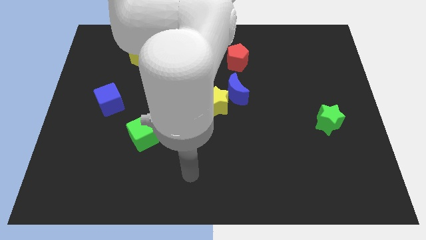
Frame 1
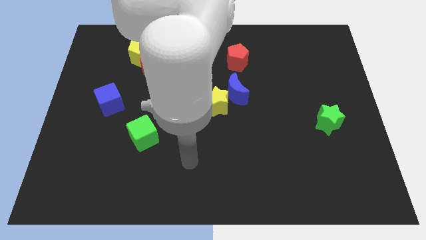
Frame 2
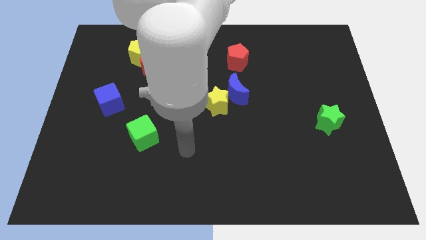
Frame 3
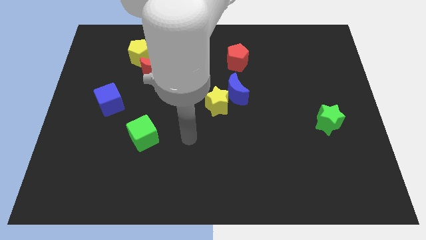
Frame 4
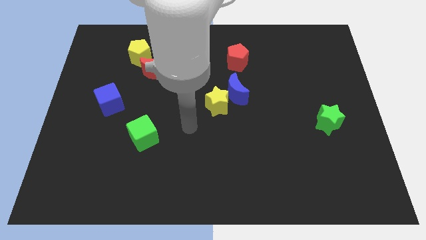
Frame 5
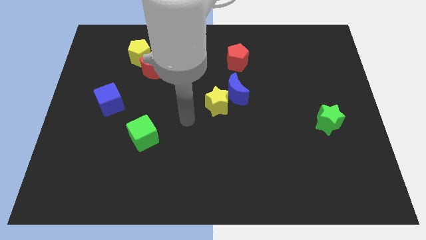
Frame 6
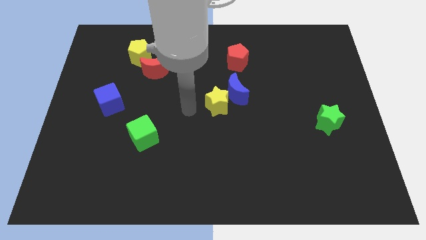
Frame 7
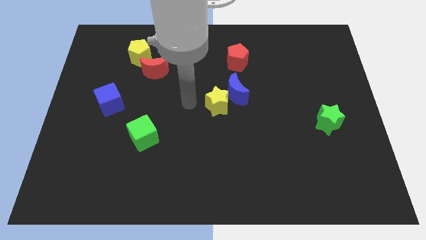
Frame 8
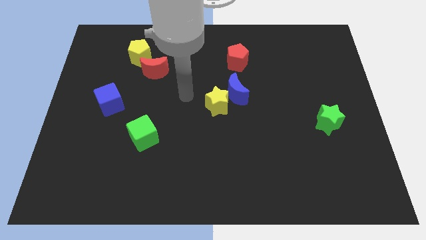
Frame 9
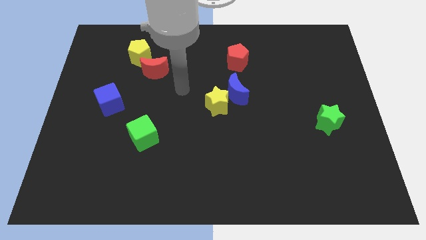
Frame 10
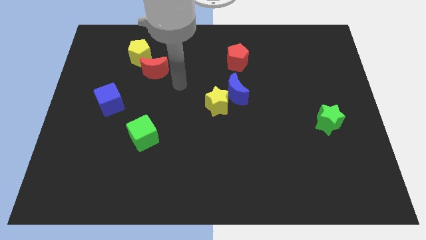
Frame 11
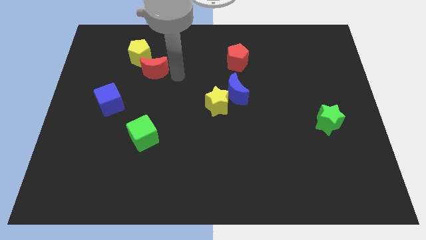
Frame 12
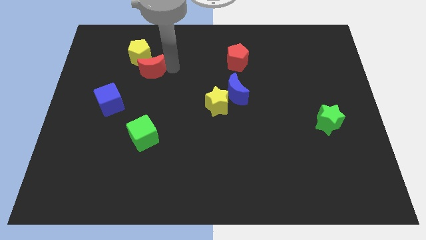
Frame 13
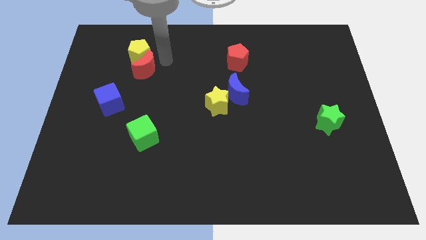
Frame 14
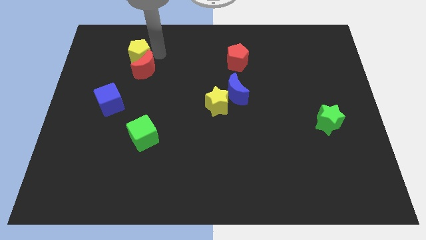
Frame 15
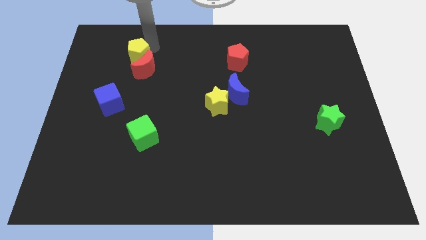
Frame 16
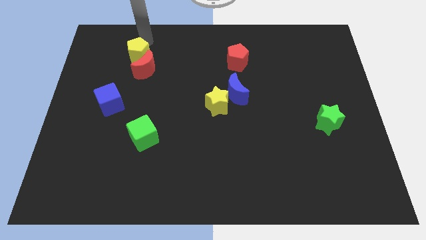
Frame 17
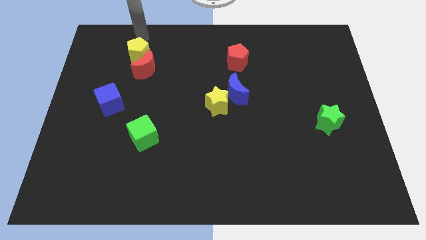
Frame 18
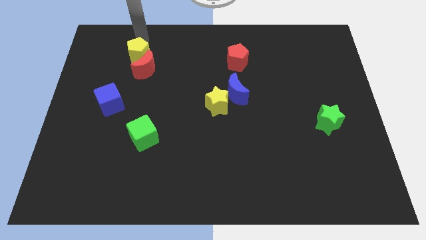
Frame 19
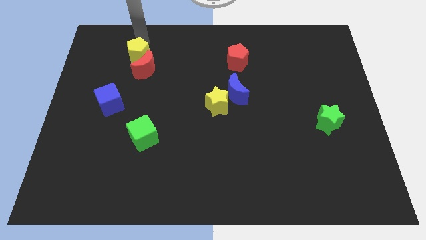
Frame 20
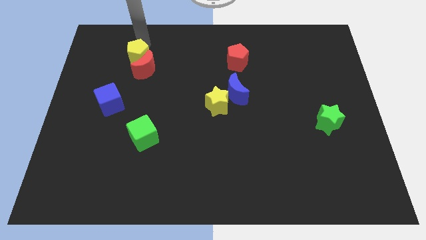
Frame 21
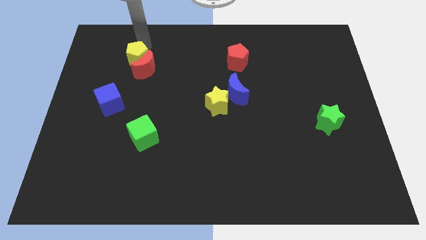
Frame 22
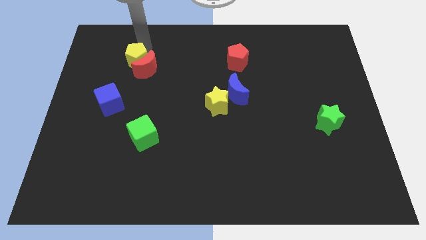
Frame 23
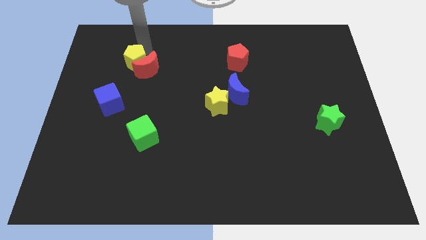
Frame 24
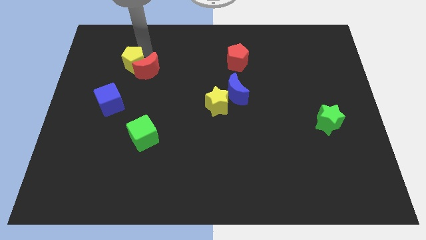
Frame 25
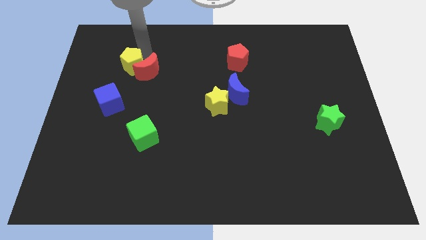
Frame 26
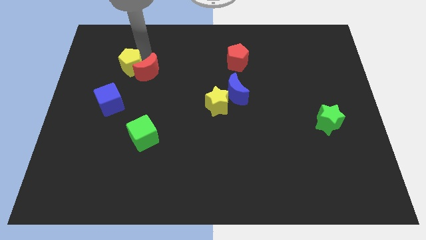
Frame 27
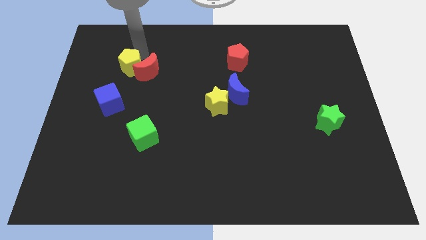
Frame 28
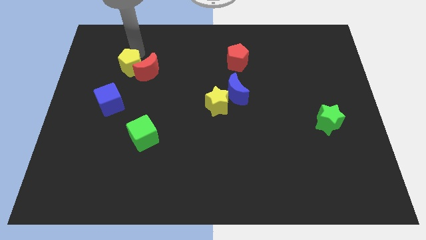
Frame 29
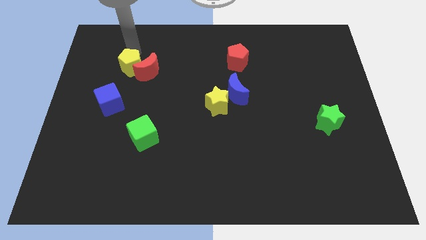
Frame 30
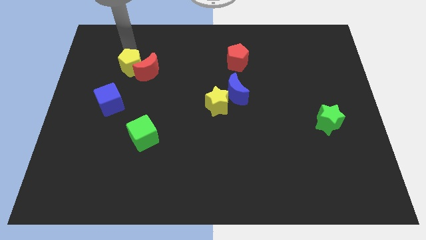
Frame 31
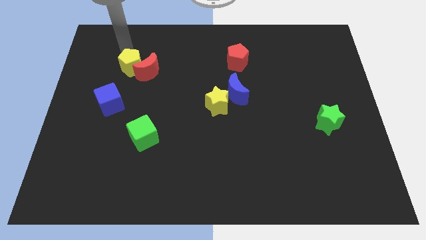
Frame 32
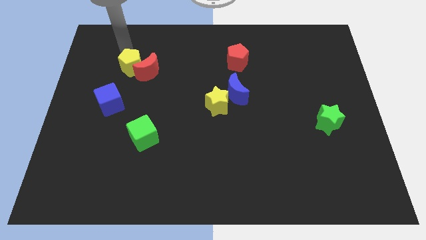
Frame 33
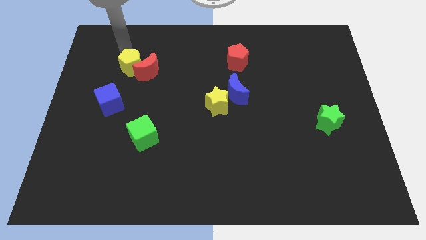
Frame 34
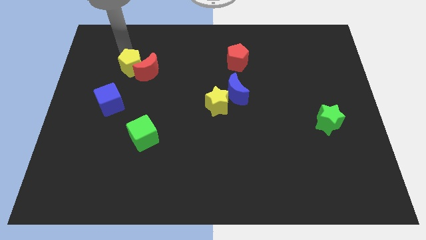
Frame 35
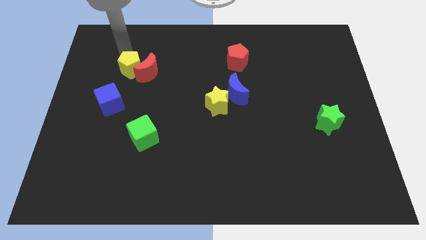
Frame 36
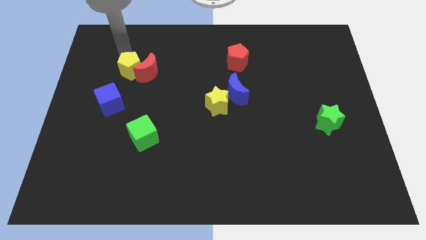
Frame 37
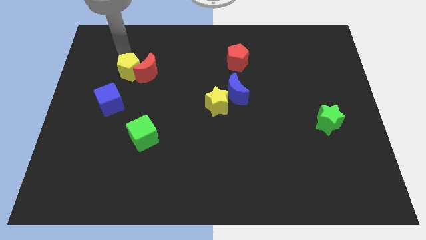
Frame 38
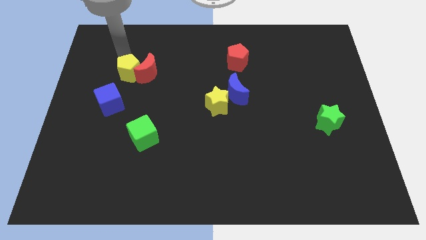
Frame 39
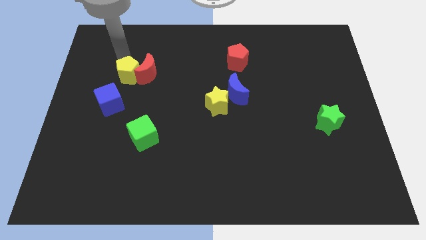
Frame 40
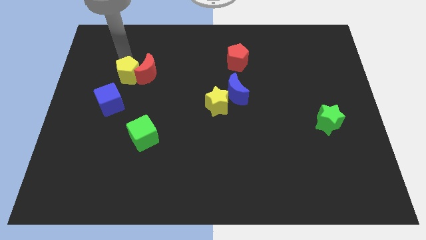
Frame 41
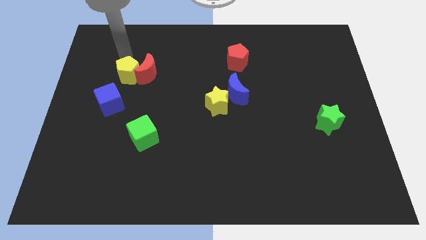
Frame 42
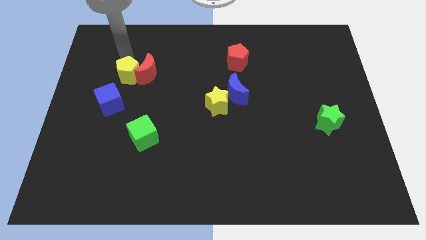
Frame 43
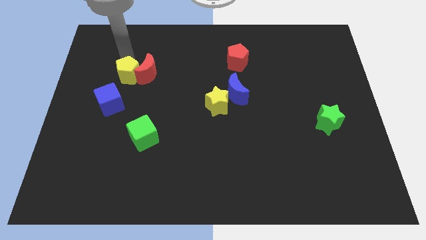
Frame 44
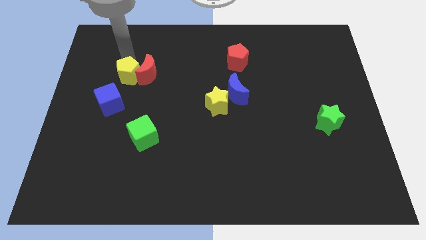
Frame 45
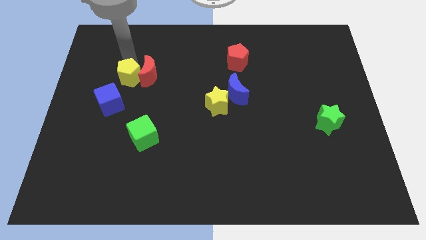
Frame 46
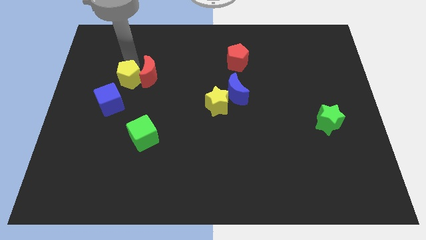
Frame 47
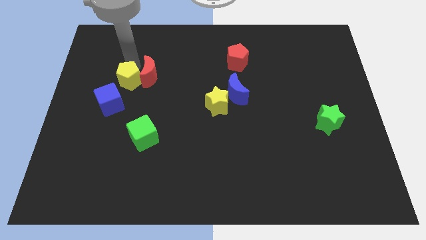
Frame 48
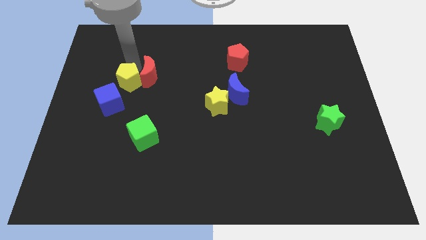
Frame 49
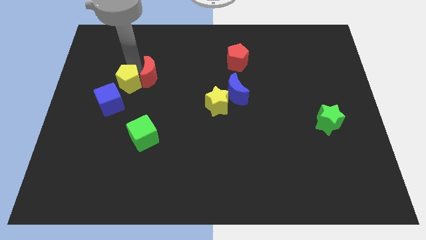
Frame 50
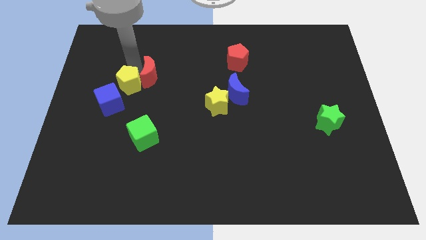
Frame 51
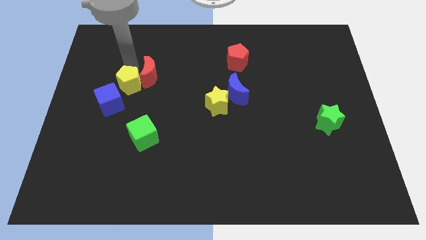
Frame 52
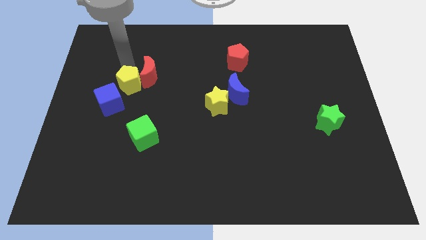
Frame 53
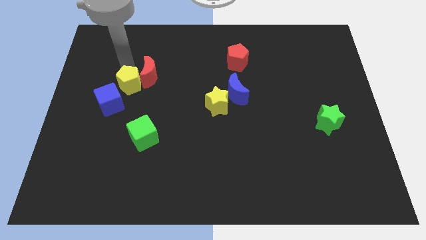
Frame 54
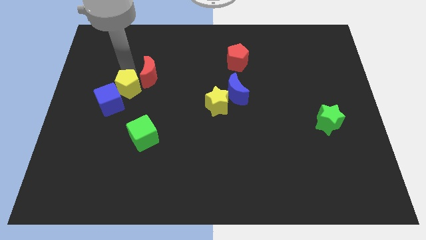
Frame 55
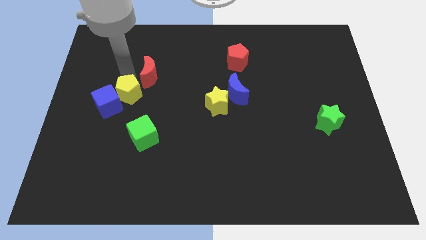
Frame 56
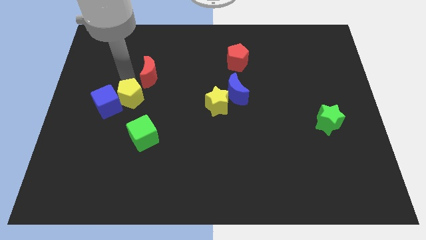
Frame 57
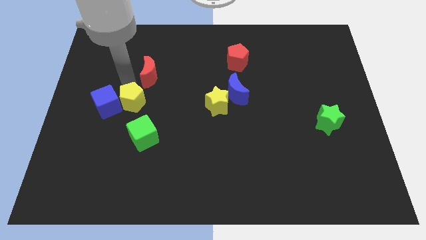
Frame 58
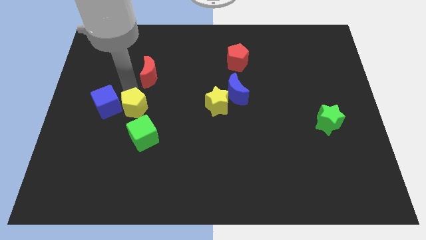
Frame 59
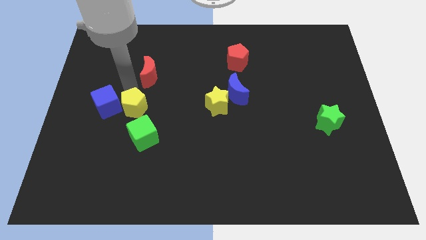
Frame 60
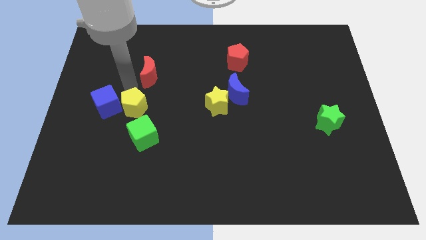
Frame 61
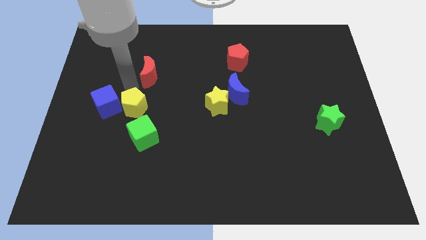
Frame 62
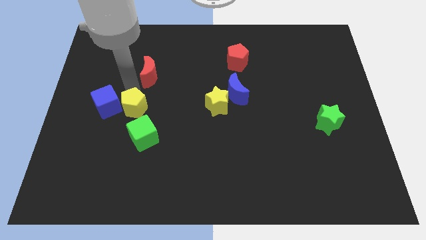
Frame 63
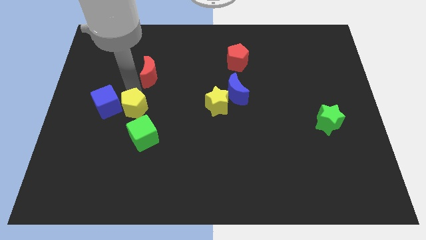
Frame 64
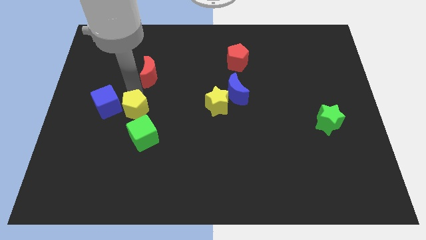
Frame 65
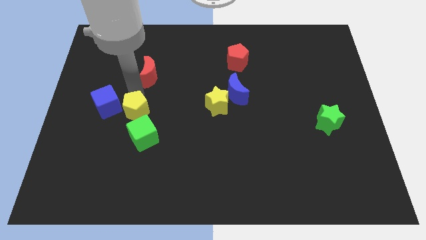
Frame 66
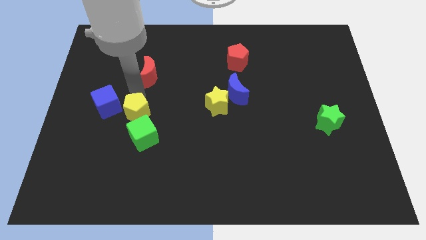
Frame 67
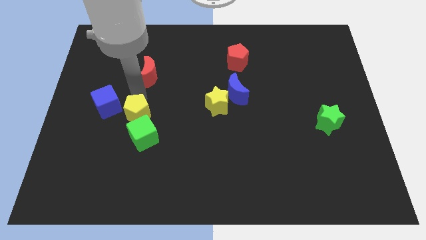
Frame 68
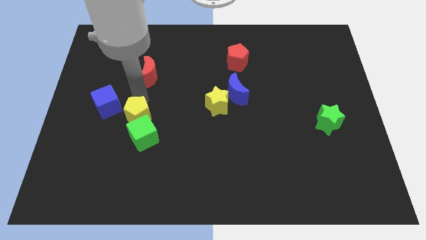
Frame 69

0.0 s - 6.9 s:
slide the yellow pentagon next to the green cube

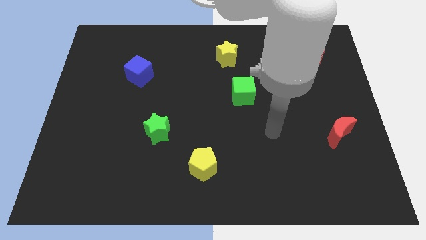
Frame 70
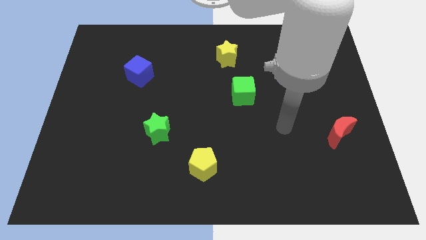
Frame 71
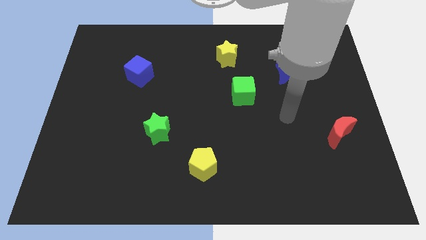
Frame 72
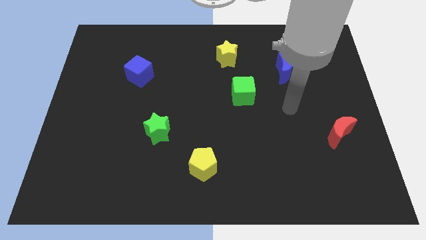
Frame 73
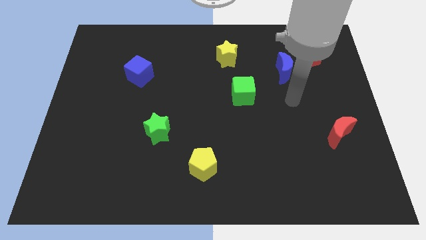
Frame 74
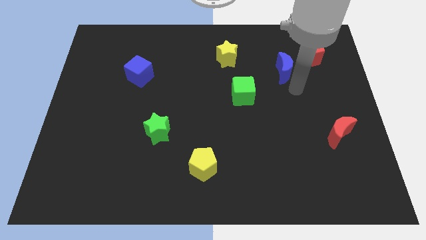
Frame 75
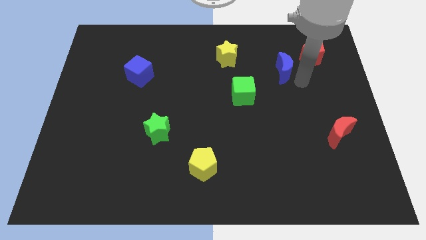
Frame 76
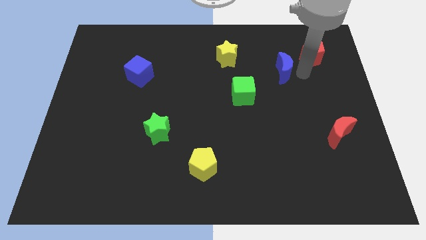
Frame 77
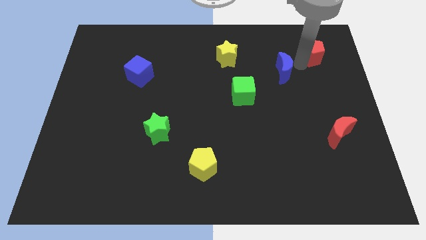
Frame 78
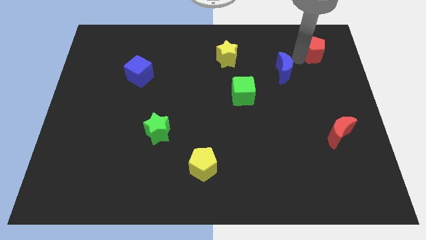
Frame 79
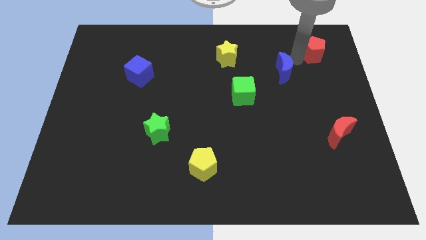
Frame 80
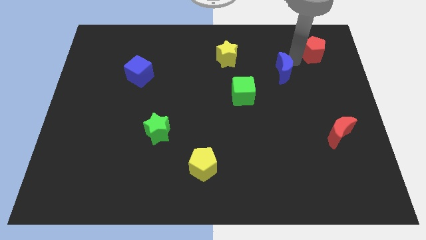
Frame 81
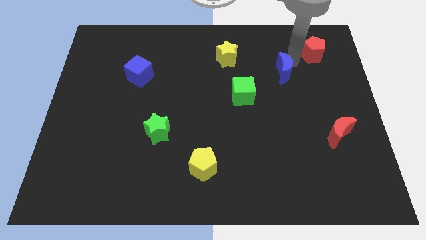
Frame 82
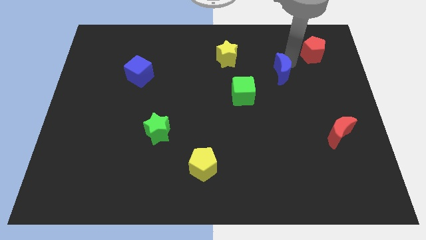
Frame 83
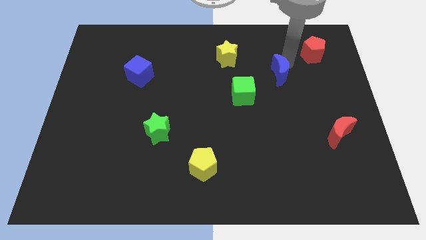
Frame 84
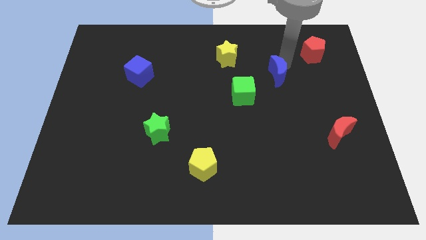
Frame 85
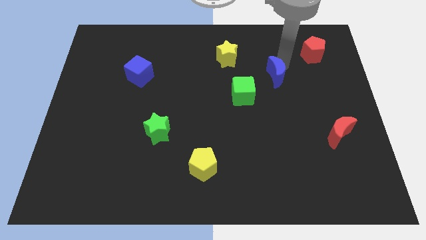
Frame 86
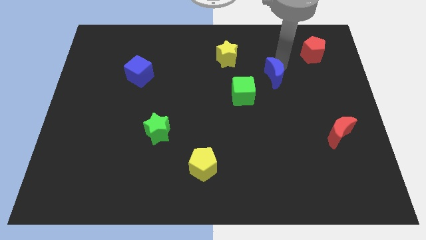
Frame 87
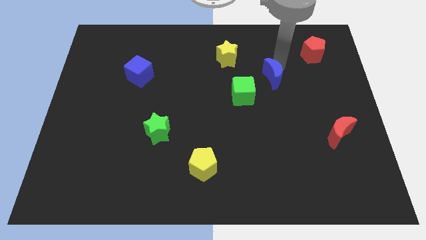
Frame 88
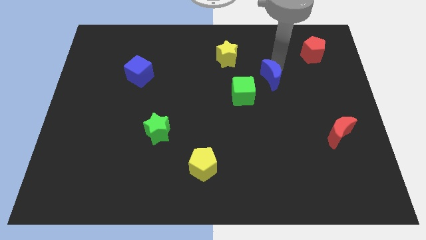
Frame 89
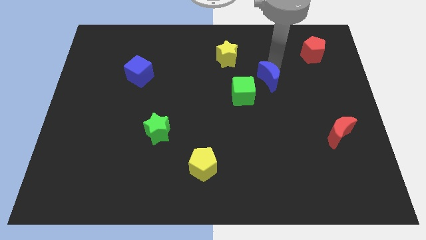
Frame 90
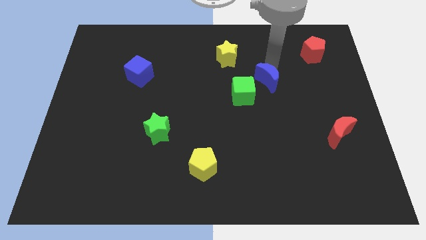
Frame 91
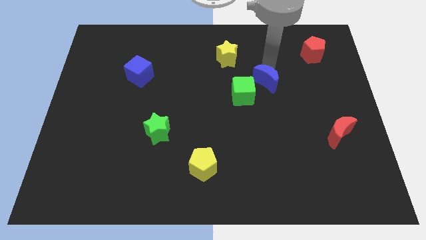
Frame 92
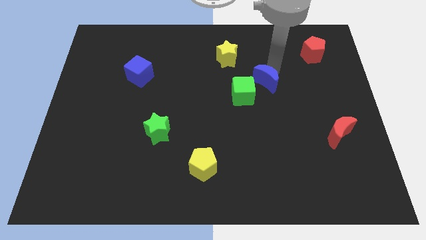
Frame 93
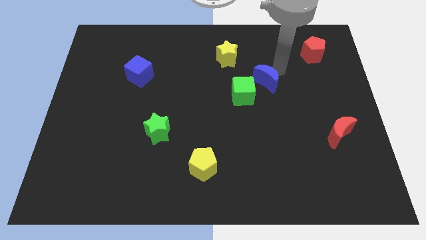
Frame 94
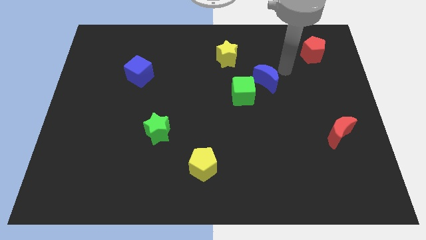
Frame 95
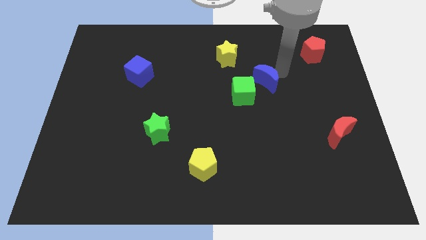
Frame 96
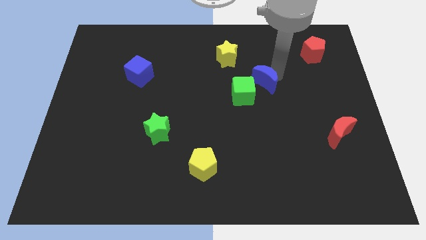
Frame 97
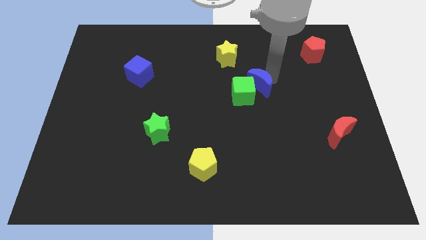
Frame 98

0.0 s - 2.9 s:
slide the blue moon next to the green cube
